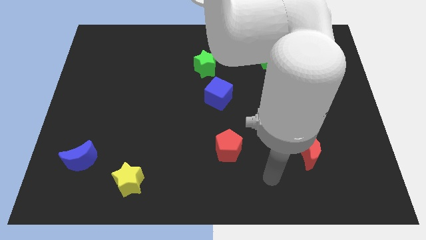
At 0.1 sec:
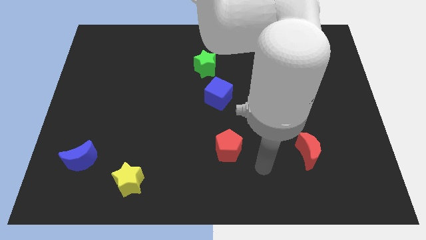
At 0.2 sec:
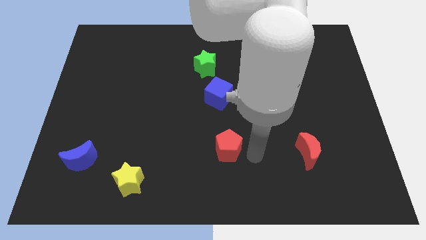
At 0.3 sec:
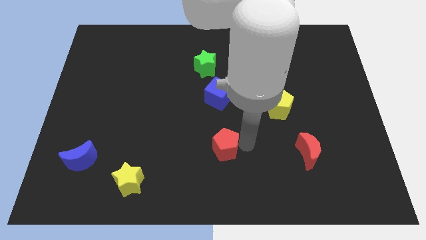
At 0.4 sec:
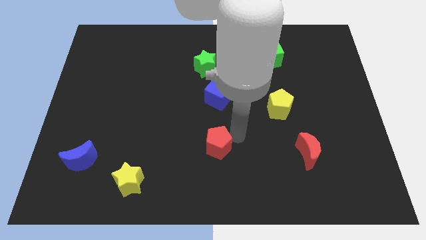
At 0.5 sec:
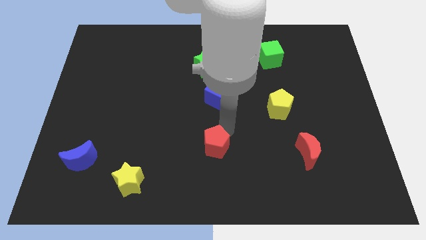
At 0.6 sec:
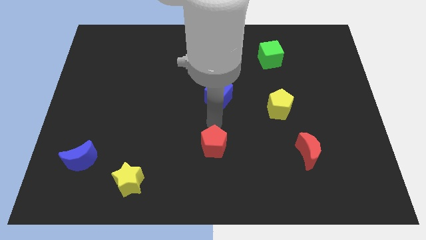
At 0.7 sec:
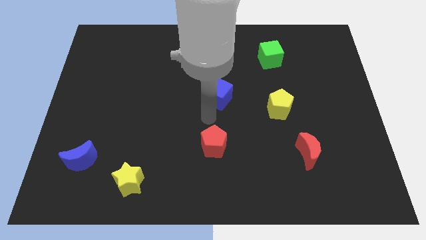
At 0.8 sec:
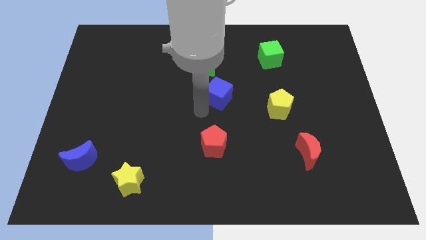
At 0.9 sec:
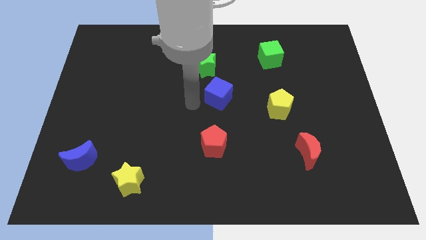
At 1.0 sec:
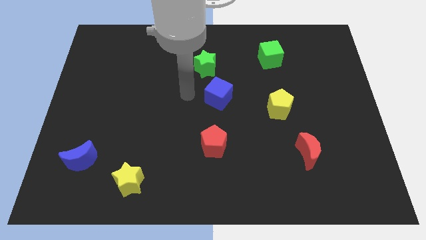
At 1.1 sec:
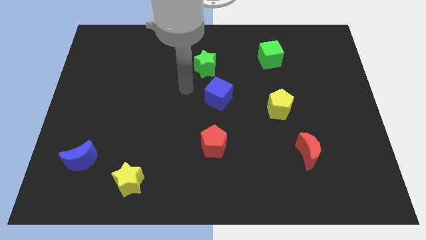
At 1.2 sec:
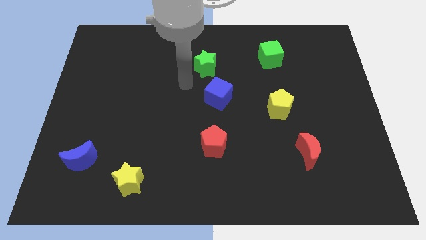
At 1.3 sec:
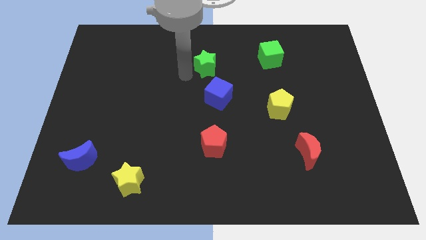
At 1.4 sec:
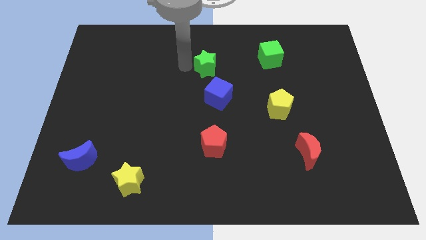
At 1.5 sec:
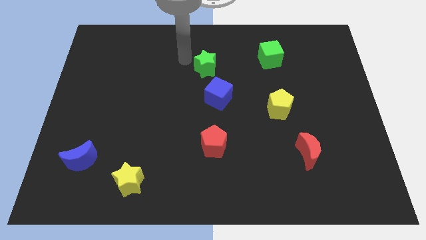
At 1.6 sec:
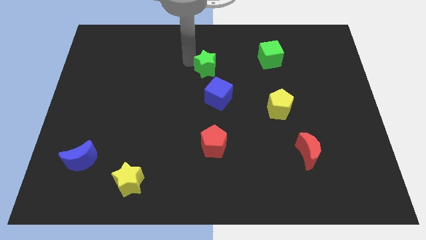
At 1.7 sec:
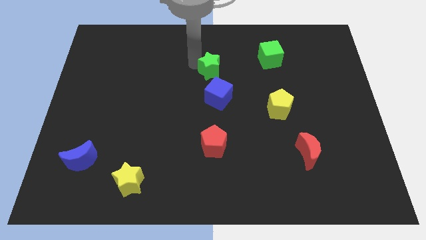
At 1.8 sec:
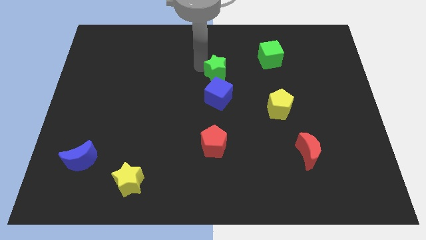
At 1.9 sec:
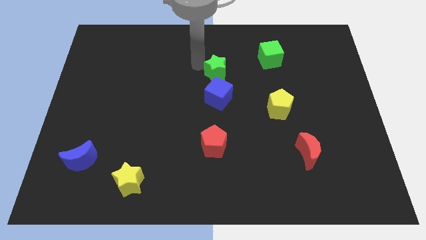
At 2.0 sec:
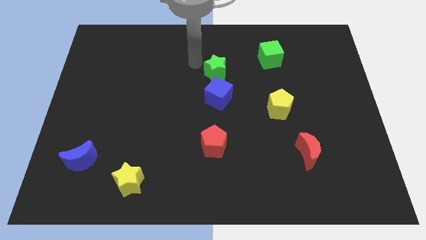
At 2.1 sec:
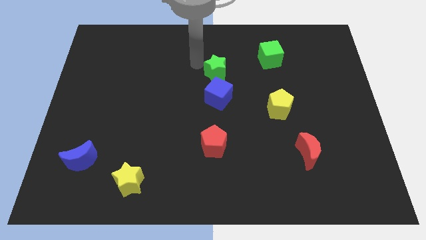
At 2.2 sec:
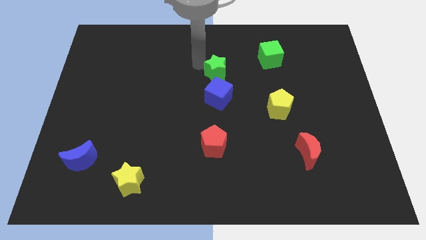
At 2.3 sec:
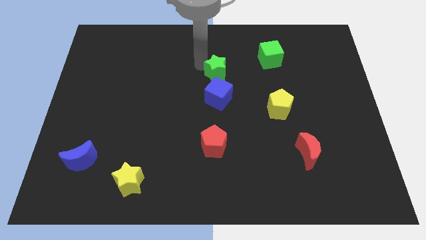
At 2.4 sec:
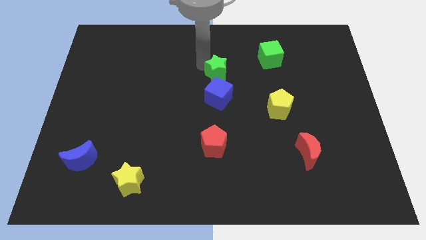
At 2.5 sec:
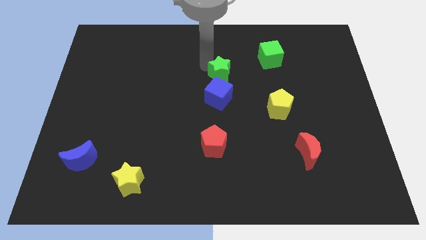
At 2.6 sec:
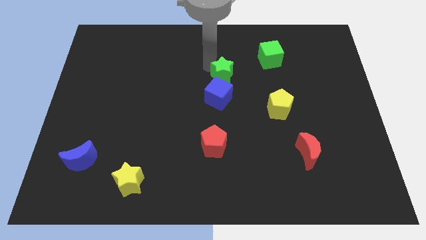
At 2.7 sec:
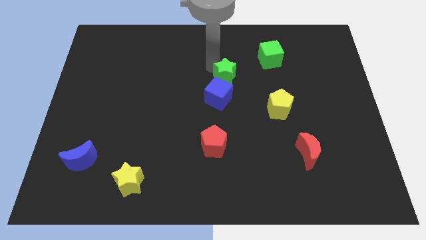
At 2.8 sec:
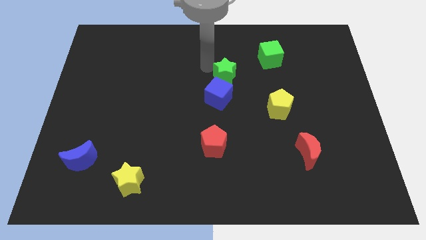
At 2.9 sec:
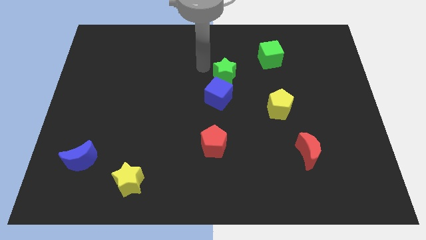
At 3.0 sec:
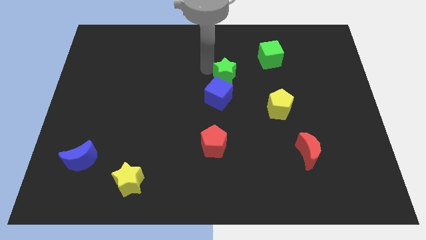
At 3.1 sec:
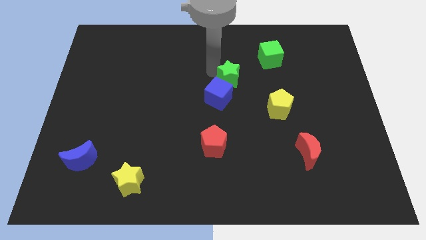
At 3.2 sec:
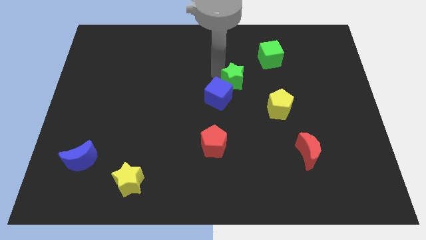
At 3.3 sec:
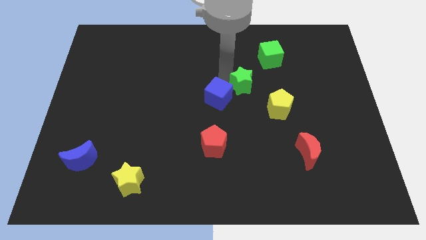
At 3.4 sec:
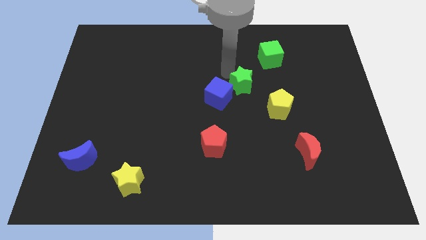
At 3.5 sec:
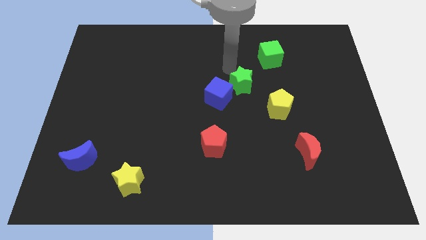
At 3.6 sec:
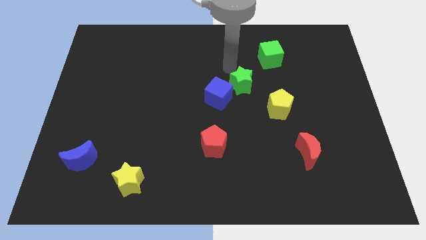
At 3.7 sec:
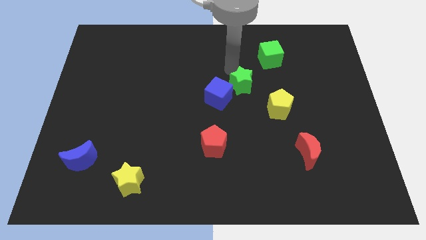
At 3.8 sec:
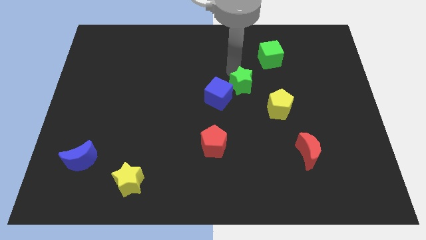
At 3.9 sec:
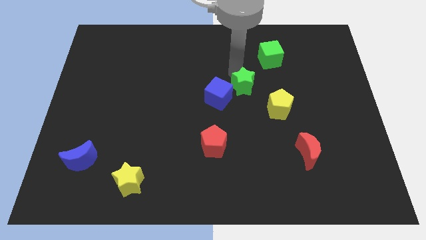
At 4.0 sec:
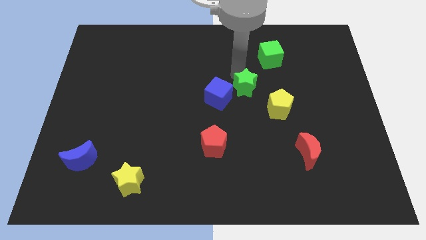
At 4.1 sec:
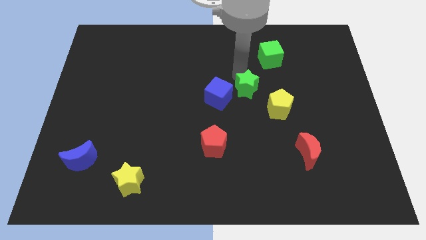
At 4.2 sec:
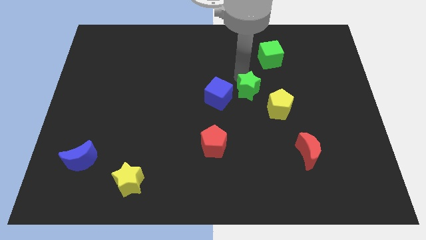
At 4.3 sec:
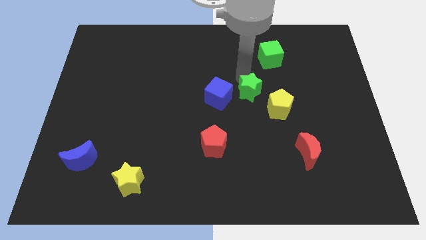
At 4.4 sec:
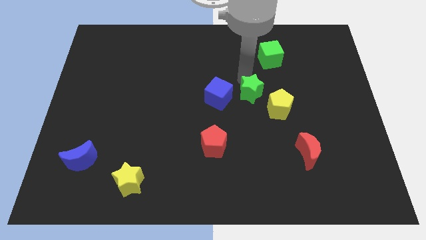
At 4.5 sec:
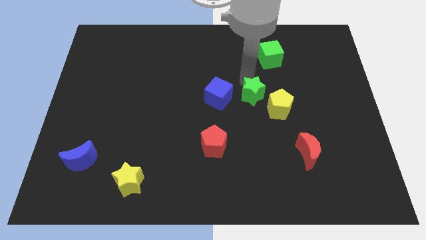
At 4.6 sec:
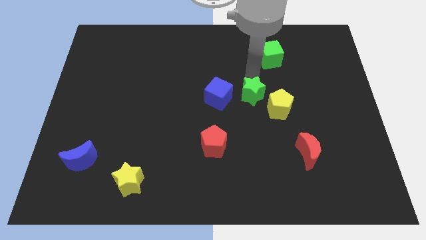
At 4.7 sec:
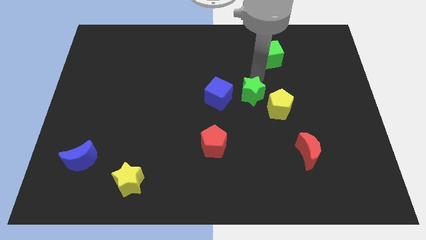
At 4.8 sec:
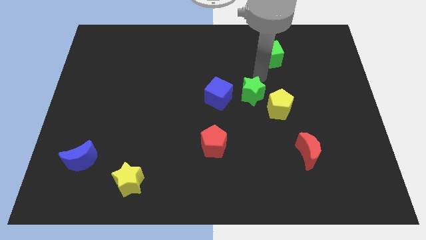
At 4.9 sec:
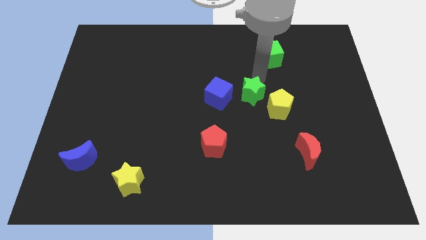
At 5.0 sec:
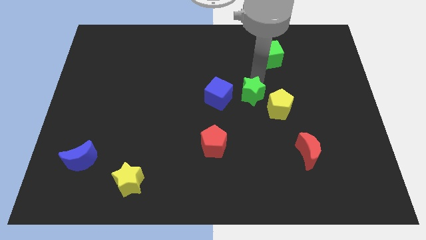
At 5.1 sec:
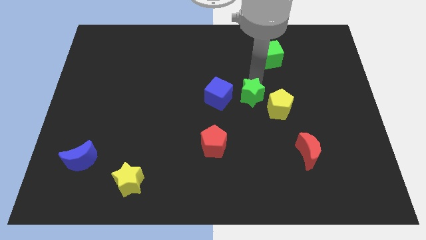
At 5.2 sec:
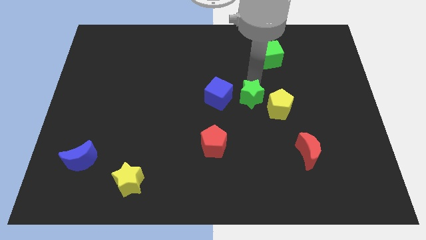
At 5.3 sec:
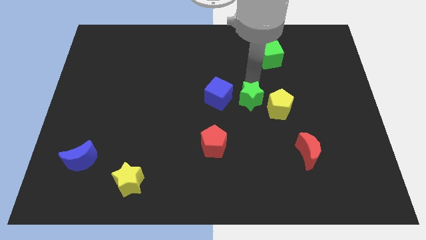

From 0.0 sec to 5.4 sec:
move the green star to the bottom right of the blue cube

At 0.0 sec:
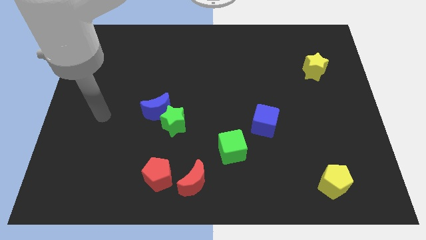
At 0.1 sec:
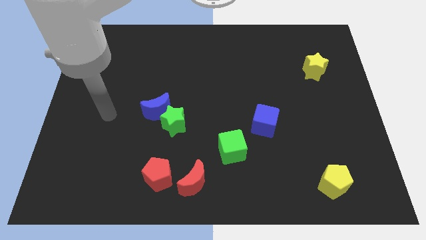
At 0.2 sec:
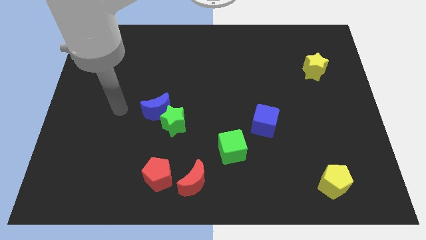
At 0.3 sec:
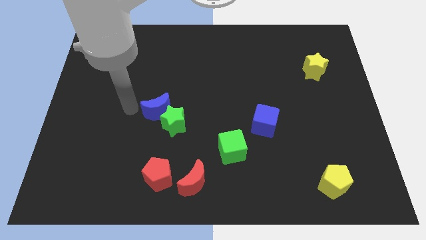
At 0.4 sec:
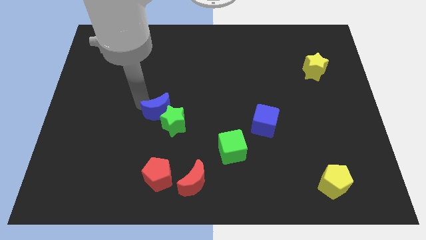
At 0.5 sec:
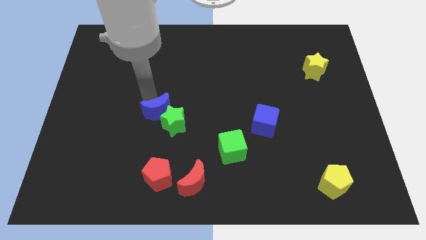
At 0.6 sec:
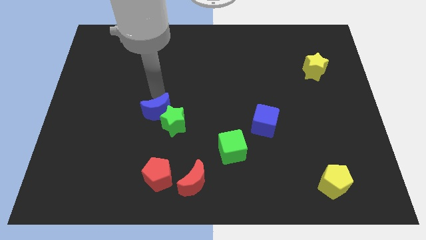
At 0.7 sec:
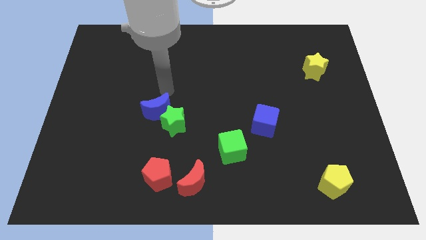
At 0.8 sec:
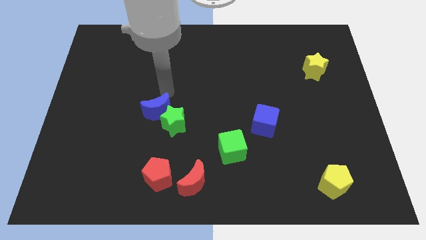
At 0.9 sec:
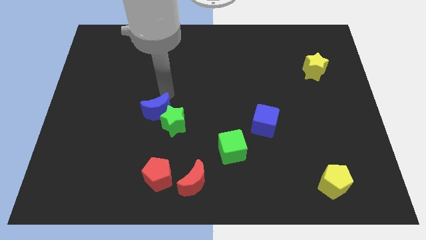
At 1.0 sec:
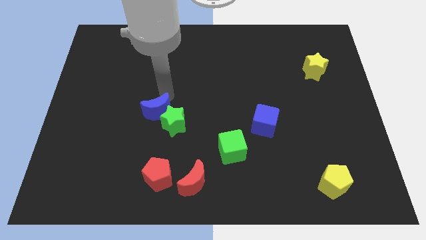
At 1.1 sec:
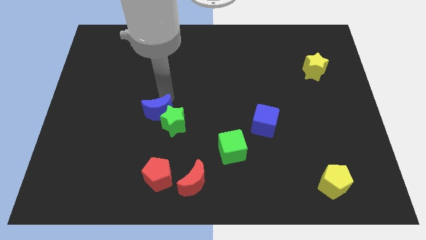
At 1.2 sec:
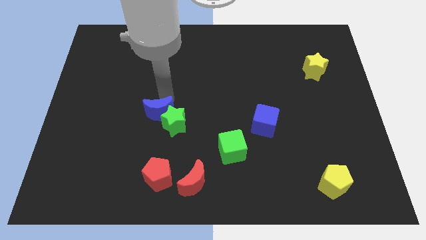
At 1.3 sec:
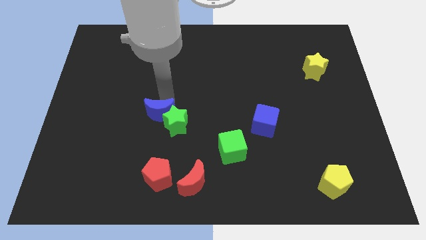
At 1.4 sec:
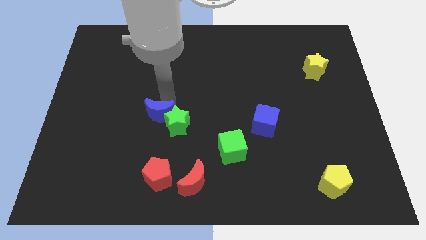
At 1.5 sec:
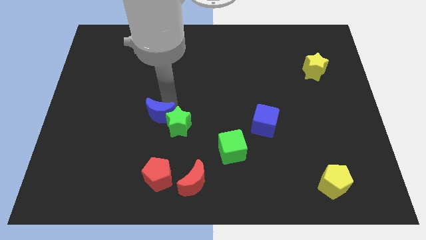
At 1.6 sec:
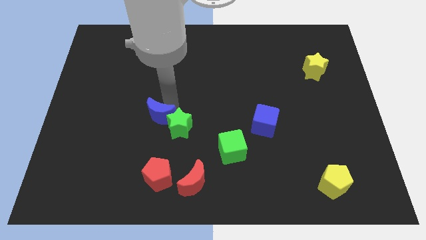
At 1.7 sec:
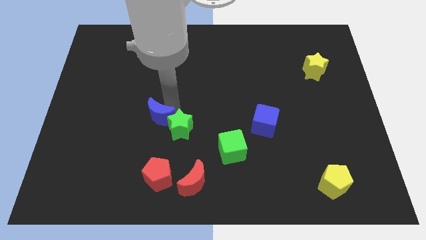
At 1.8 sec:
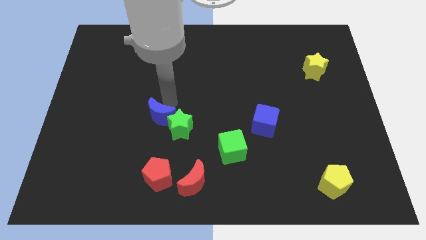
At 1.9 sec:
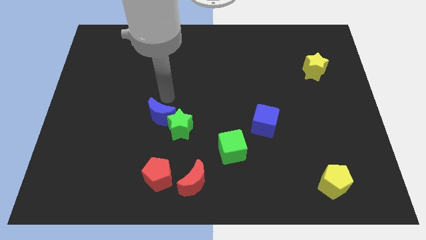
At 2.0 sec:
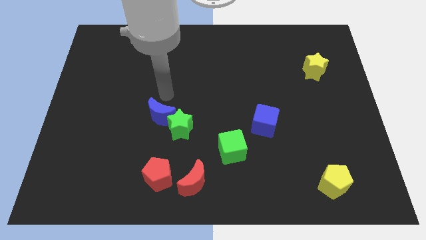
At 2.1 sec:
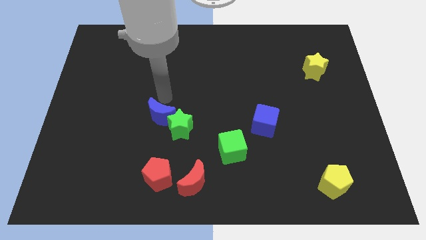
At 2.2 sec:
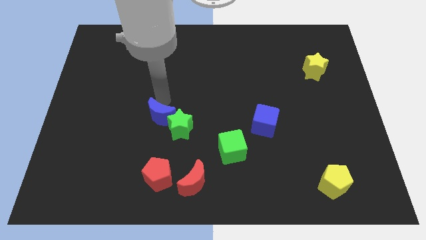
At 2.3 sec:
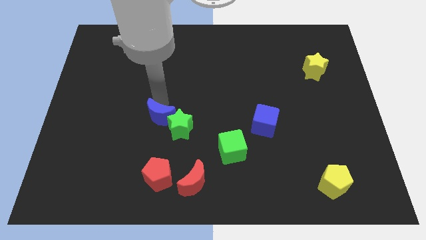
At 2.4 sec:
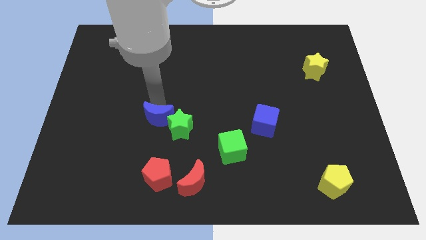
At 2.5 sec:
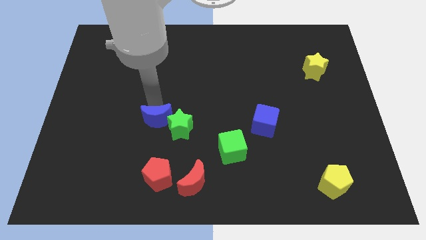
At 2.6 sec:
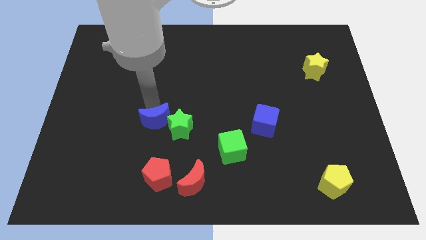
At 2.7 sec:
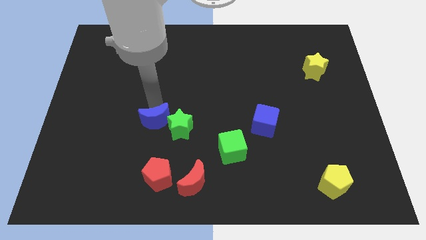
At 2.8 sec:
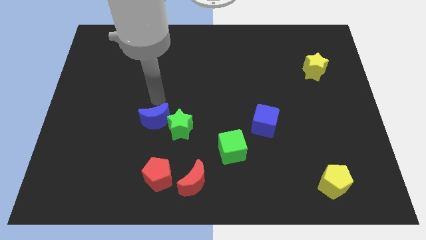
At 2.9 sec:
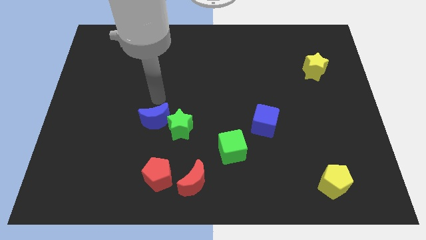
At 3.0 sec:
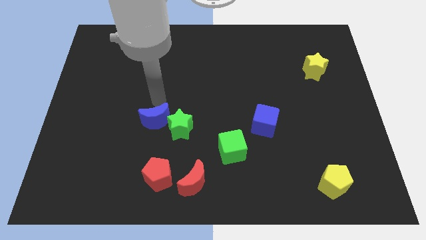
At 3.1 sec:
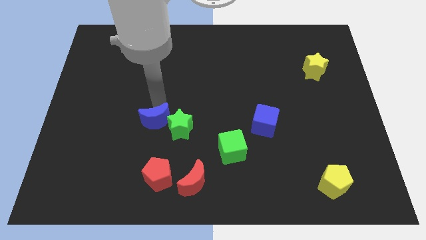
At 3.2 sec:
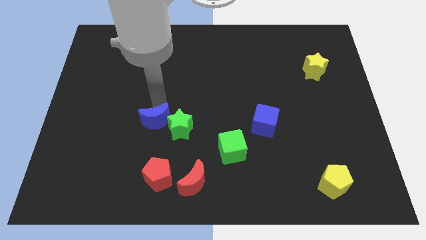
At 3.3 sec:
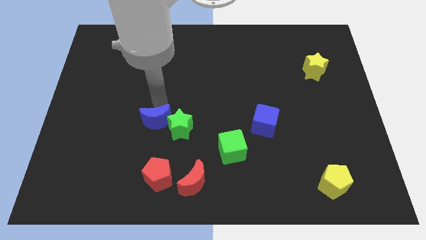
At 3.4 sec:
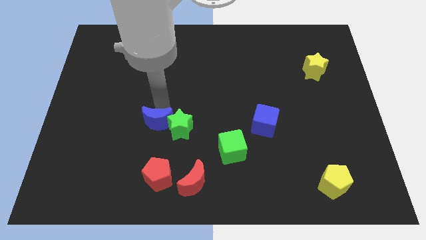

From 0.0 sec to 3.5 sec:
move the blue moon diagonally down and to the left of the green star
